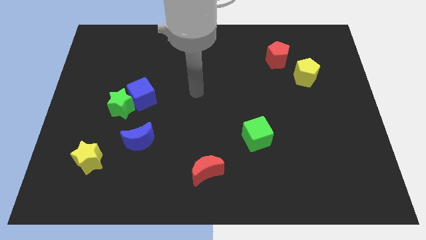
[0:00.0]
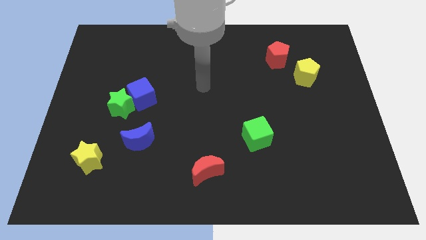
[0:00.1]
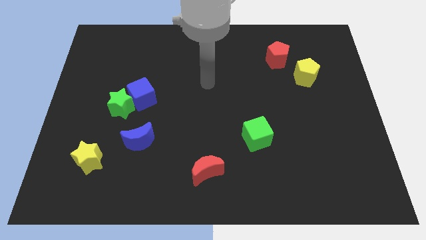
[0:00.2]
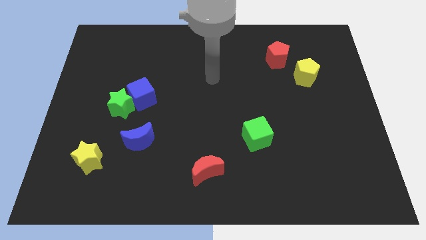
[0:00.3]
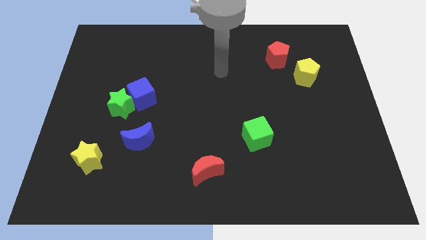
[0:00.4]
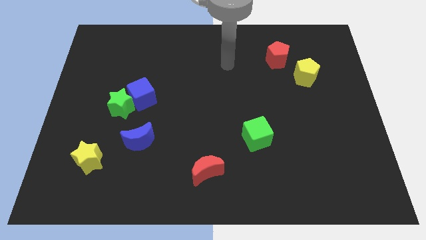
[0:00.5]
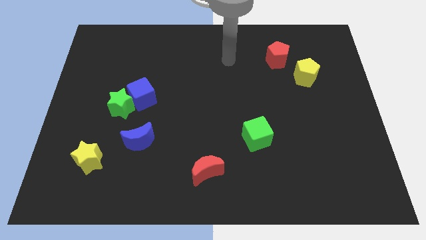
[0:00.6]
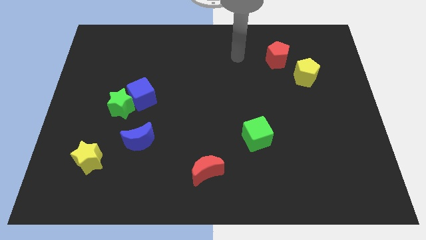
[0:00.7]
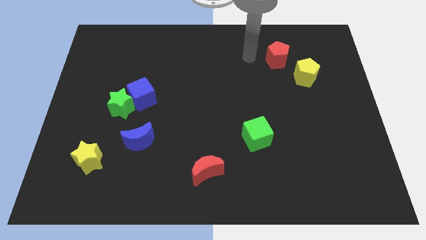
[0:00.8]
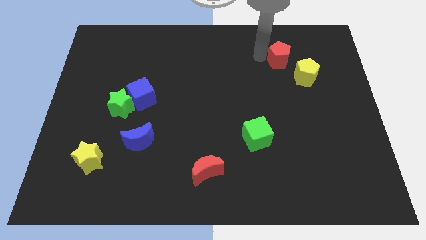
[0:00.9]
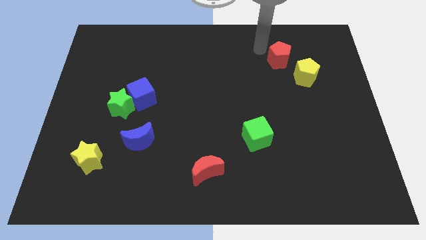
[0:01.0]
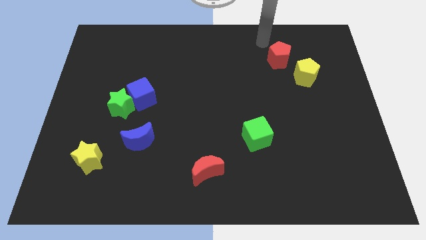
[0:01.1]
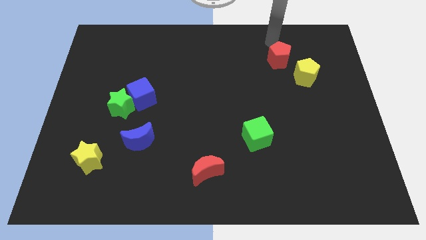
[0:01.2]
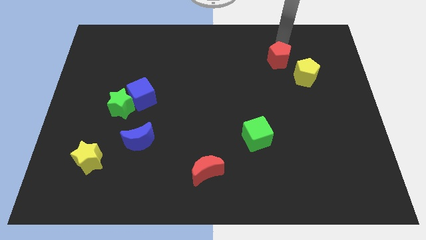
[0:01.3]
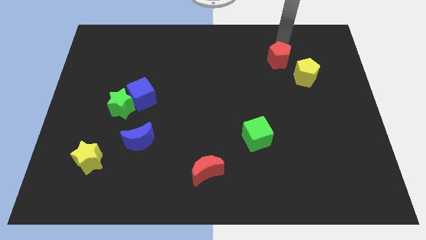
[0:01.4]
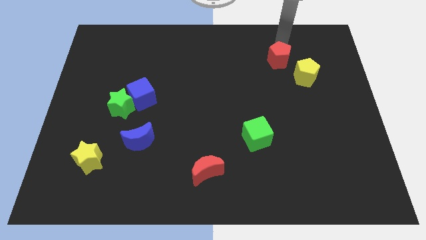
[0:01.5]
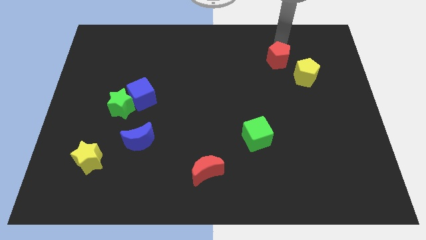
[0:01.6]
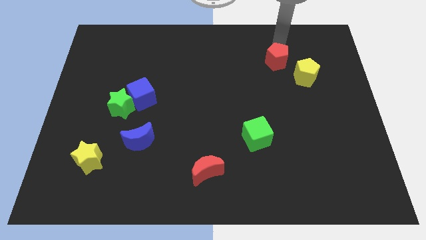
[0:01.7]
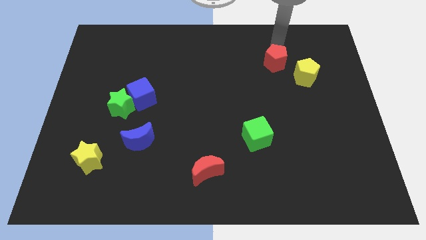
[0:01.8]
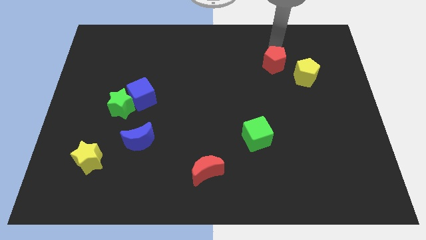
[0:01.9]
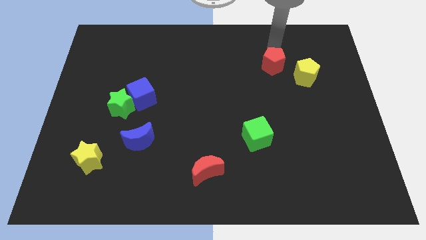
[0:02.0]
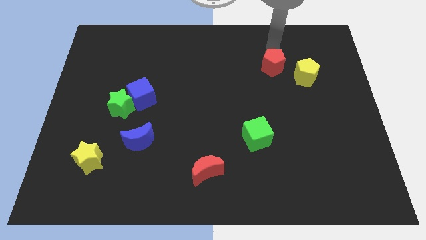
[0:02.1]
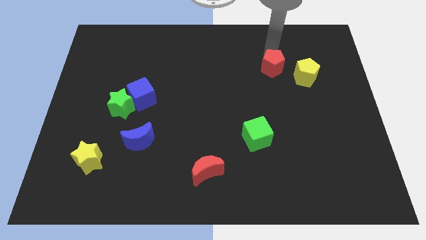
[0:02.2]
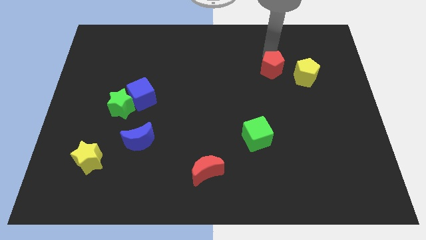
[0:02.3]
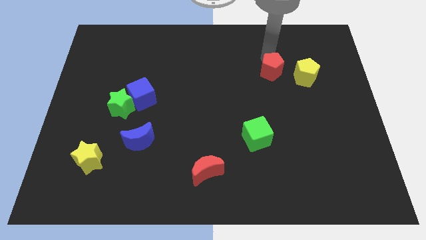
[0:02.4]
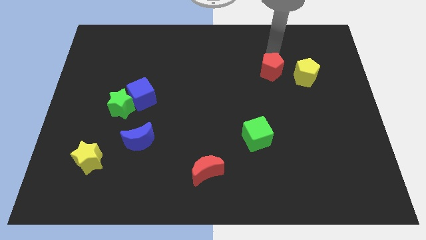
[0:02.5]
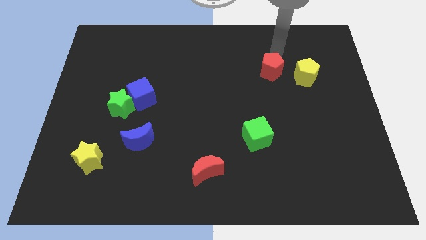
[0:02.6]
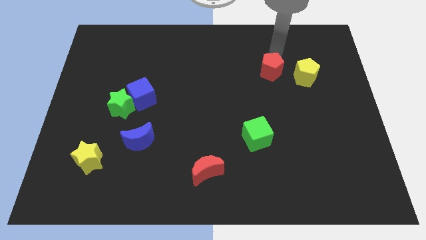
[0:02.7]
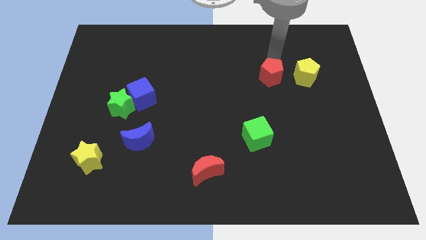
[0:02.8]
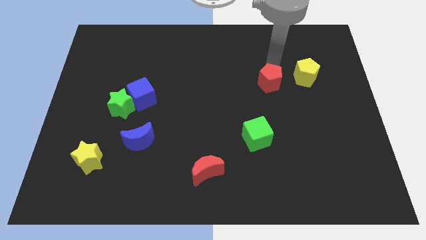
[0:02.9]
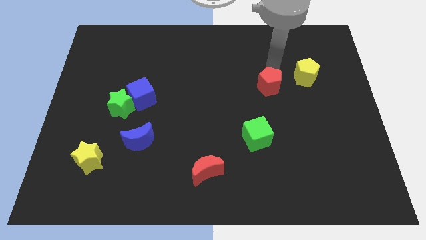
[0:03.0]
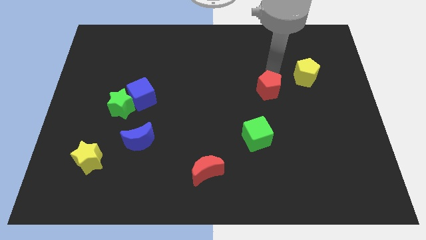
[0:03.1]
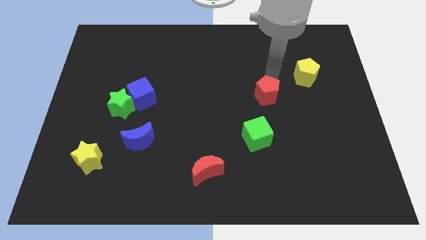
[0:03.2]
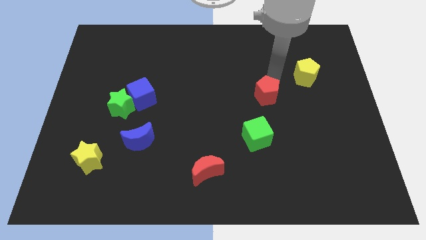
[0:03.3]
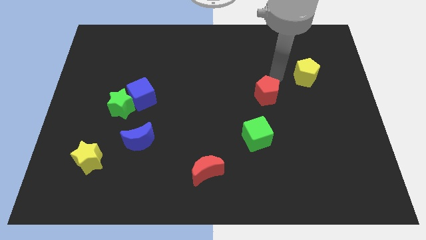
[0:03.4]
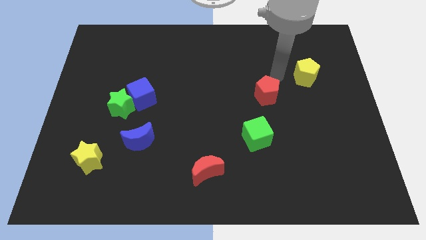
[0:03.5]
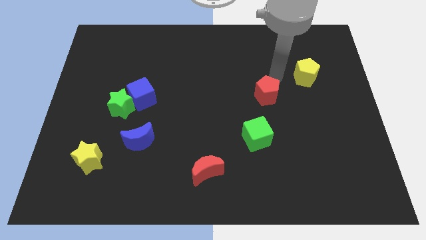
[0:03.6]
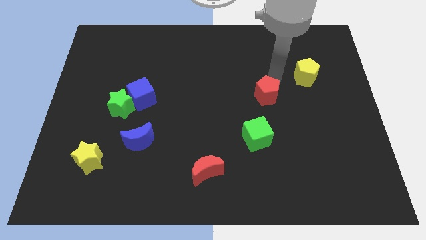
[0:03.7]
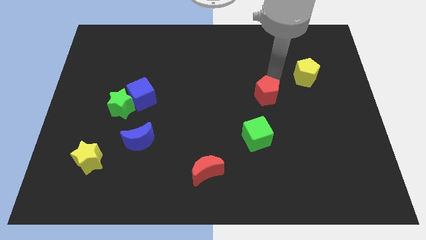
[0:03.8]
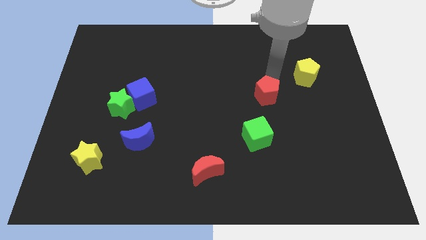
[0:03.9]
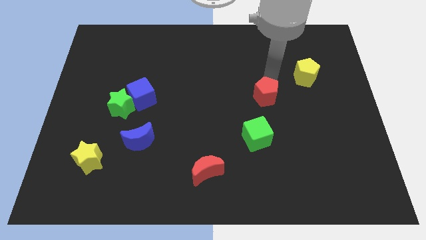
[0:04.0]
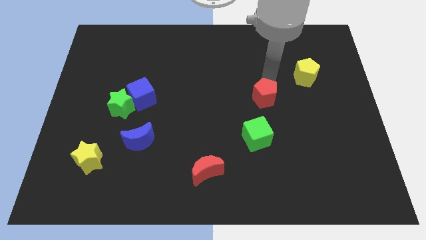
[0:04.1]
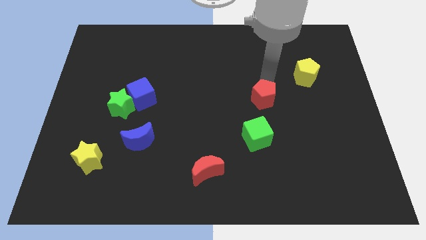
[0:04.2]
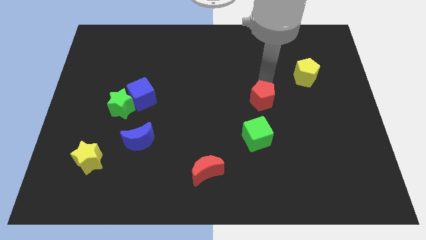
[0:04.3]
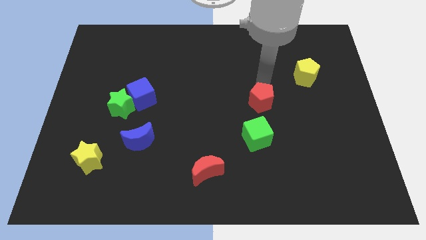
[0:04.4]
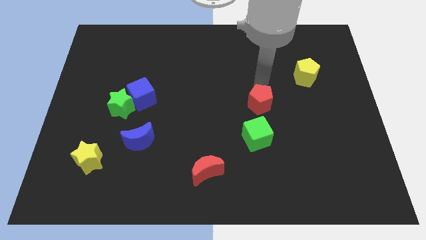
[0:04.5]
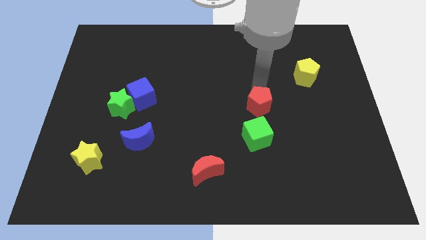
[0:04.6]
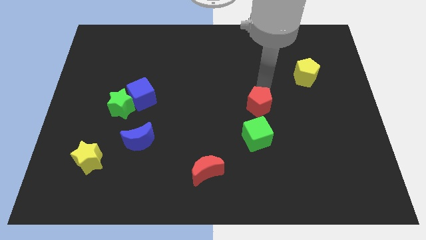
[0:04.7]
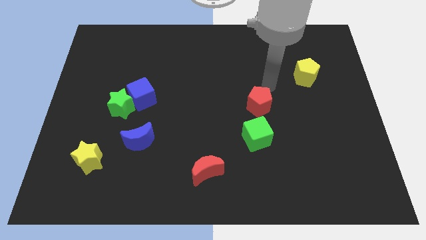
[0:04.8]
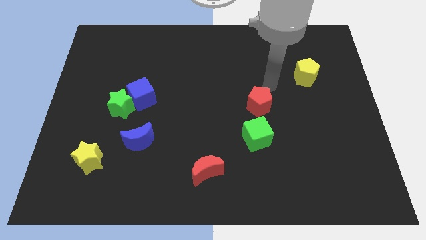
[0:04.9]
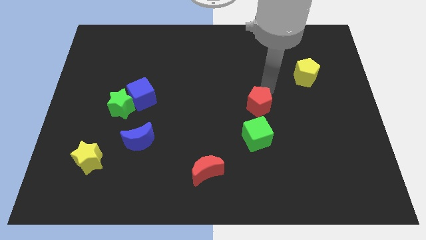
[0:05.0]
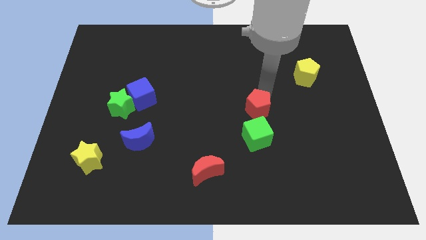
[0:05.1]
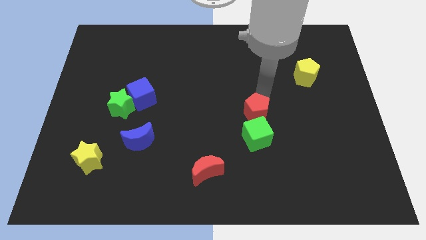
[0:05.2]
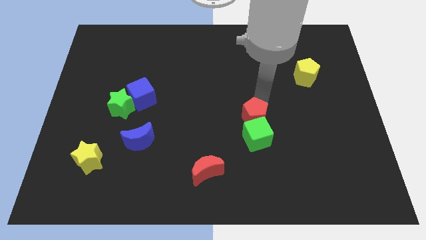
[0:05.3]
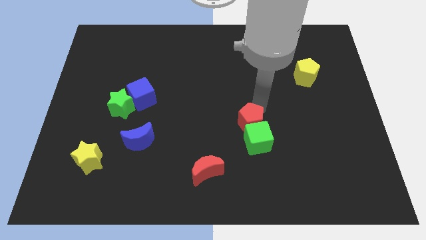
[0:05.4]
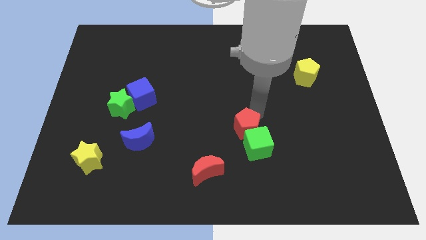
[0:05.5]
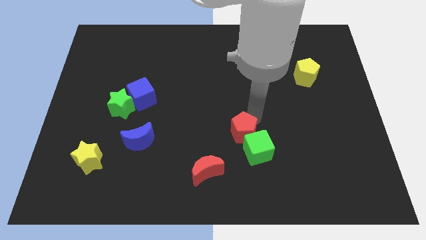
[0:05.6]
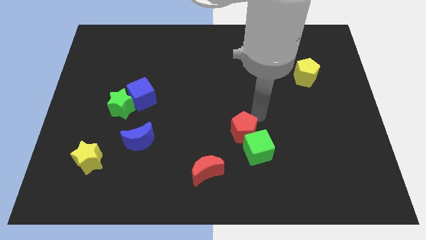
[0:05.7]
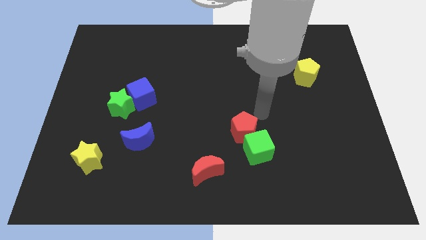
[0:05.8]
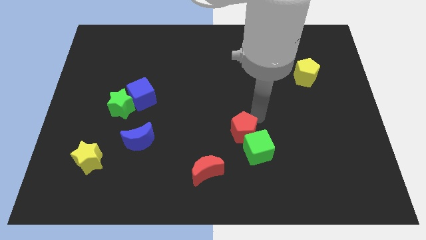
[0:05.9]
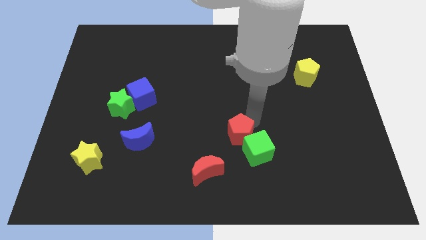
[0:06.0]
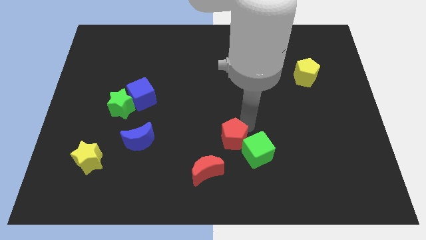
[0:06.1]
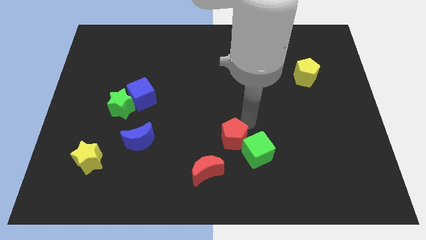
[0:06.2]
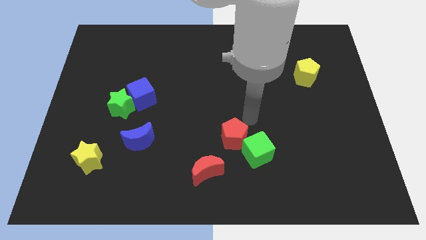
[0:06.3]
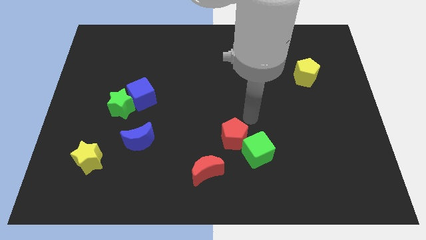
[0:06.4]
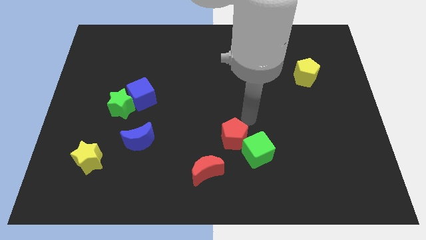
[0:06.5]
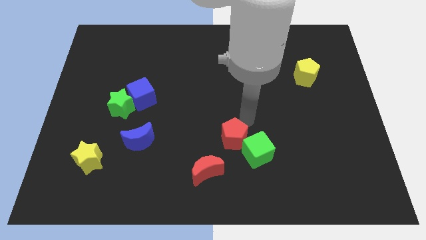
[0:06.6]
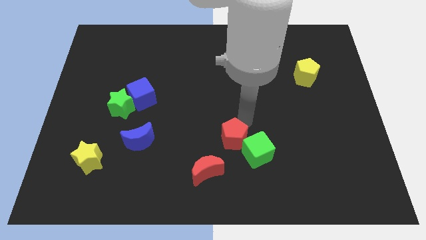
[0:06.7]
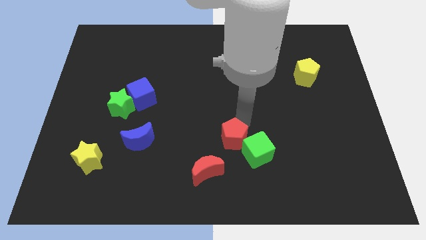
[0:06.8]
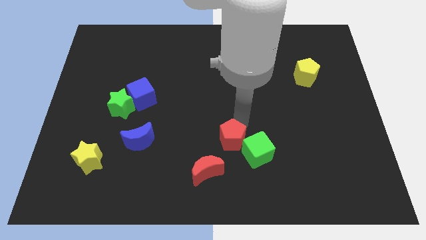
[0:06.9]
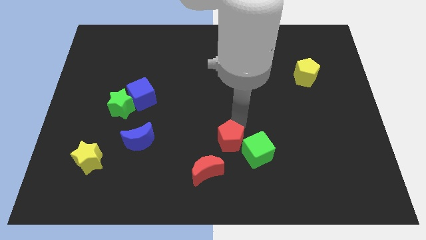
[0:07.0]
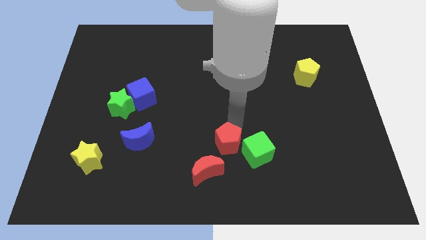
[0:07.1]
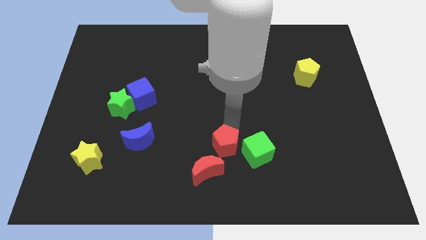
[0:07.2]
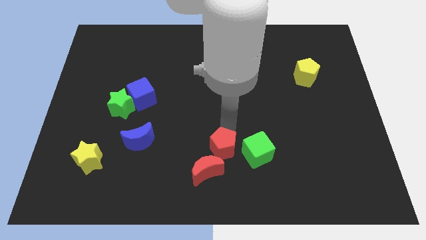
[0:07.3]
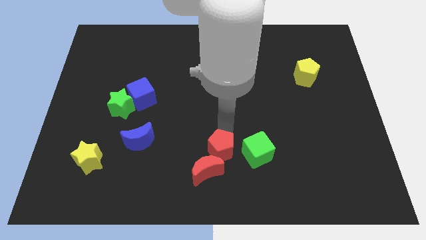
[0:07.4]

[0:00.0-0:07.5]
slide the red pentagon towards the red moon

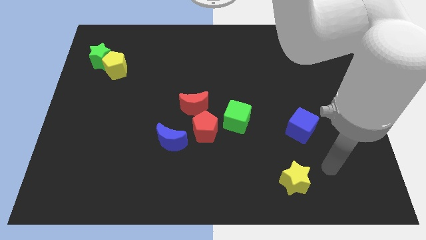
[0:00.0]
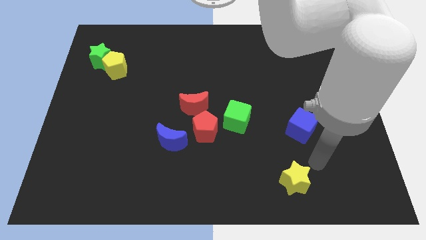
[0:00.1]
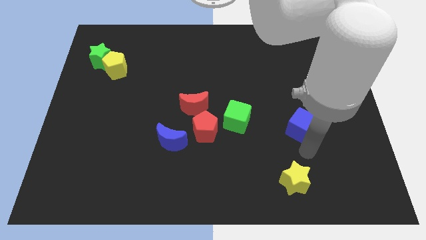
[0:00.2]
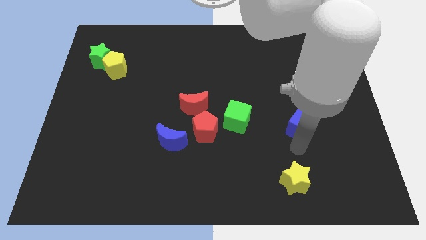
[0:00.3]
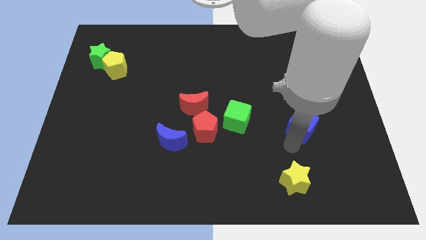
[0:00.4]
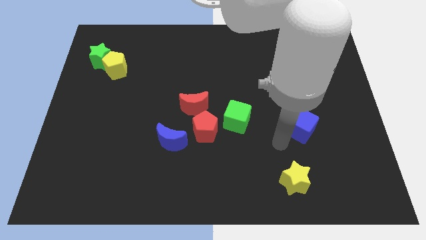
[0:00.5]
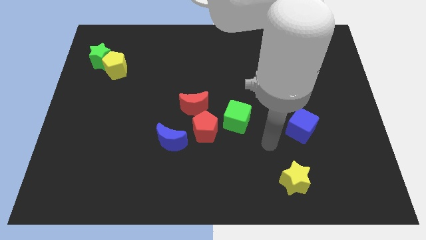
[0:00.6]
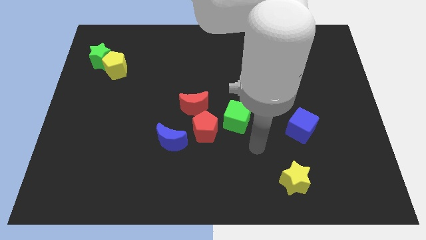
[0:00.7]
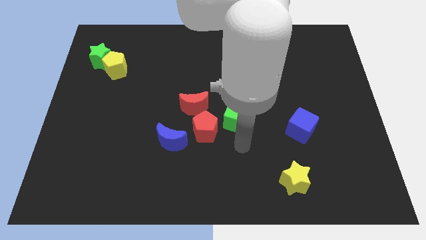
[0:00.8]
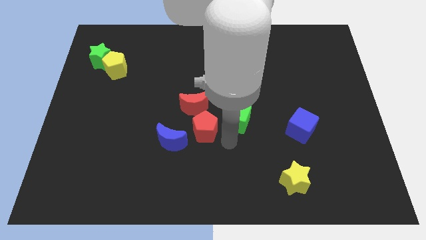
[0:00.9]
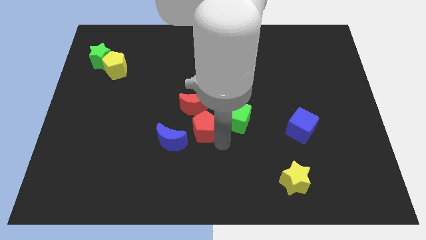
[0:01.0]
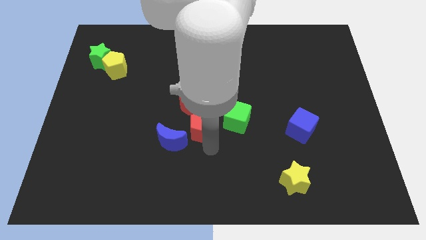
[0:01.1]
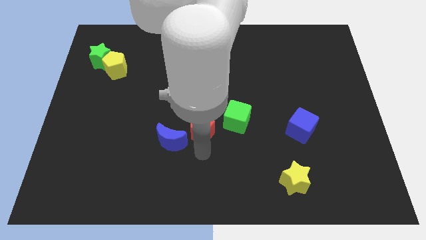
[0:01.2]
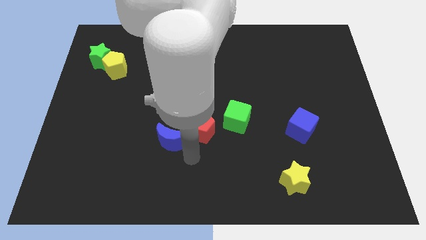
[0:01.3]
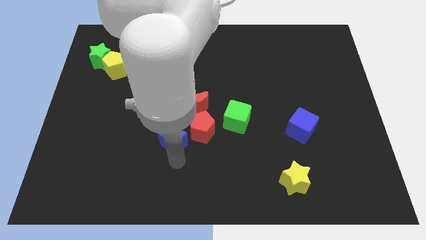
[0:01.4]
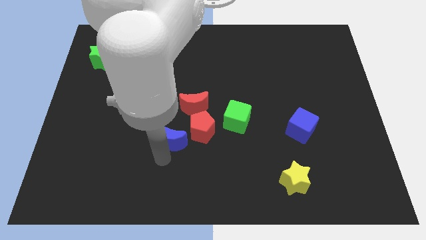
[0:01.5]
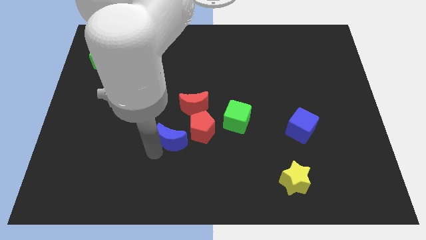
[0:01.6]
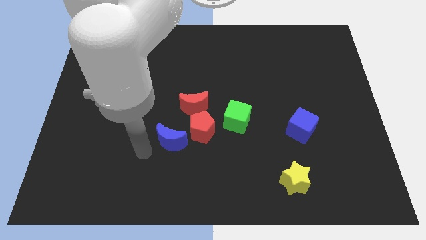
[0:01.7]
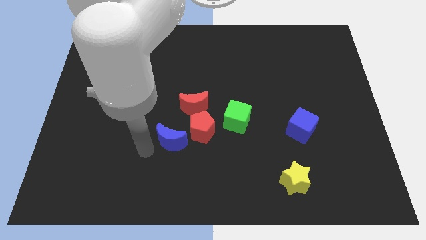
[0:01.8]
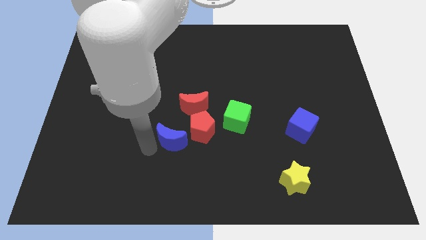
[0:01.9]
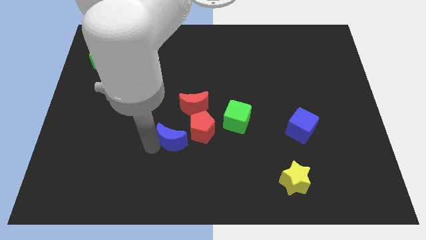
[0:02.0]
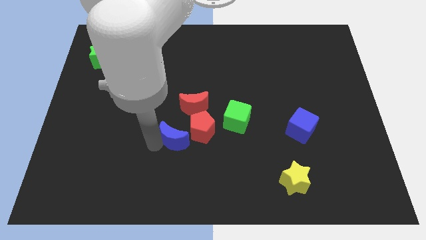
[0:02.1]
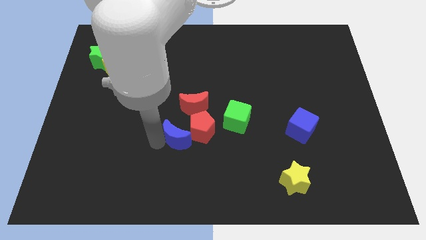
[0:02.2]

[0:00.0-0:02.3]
move the blue moon towards the red pentagon
